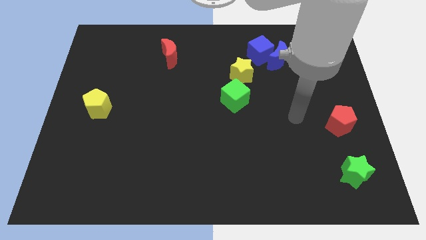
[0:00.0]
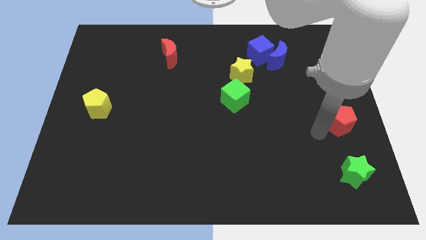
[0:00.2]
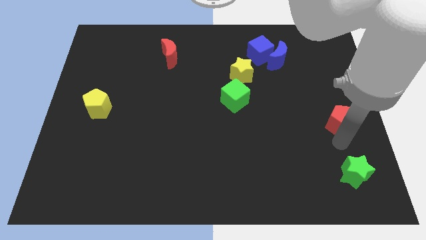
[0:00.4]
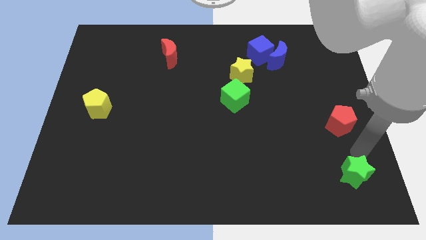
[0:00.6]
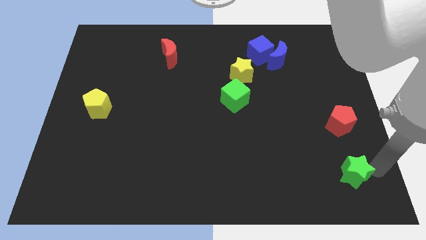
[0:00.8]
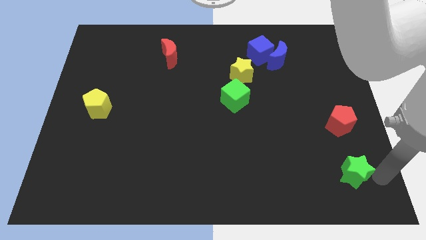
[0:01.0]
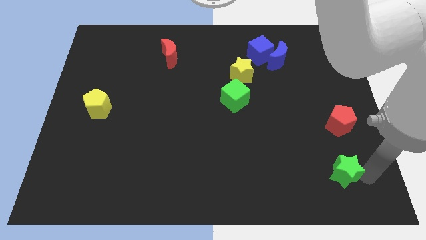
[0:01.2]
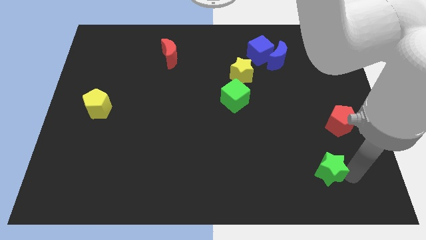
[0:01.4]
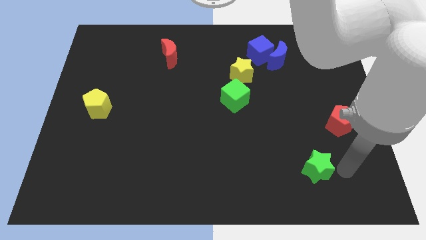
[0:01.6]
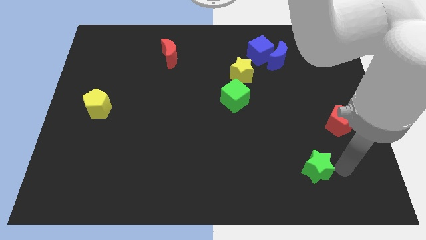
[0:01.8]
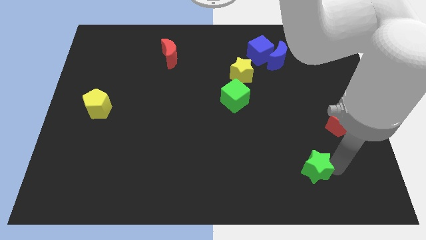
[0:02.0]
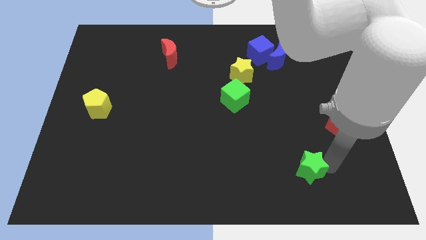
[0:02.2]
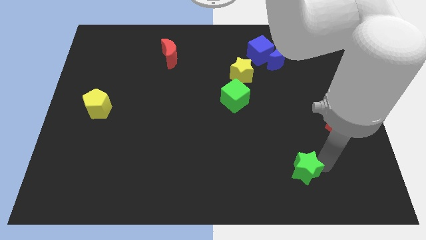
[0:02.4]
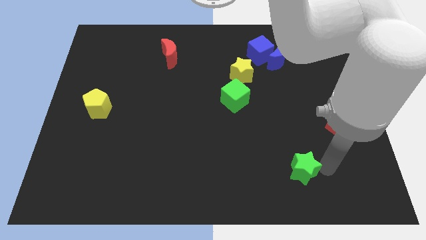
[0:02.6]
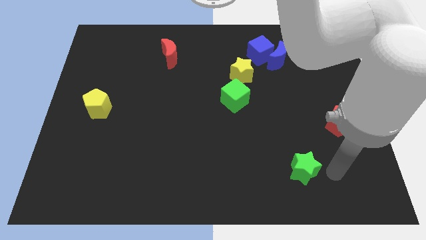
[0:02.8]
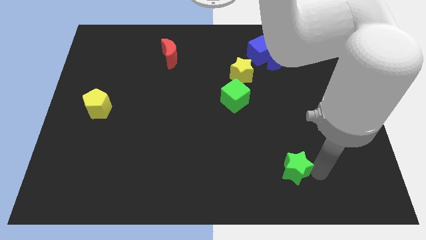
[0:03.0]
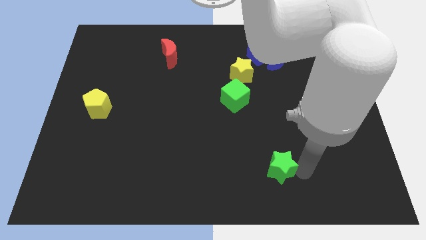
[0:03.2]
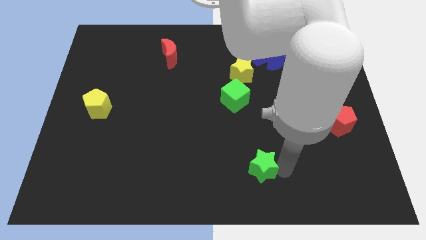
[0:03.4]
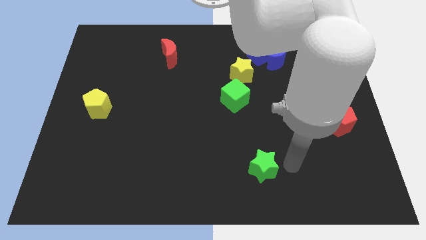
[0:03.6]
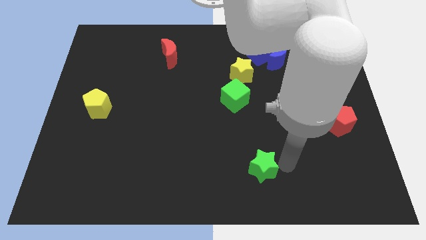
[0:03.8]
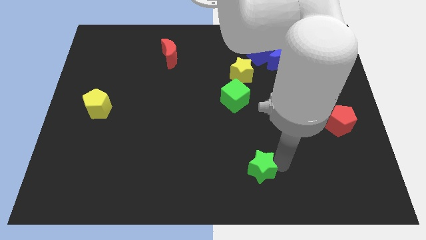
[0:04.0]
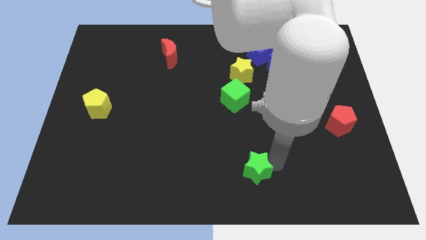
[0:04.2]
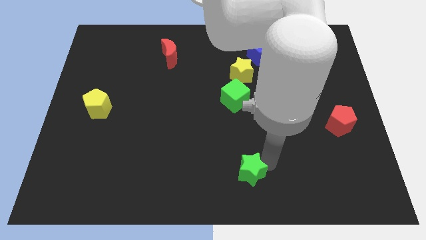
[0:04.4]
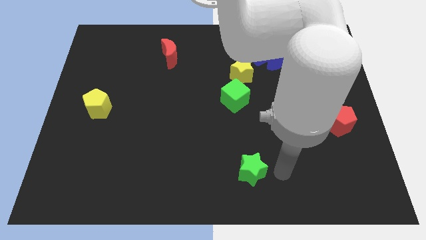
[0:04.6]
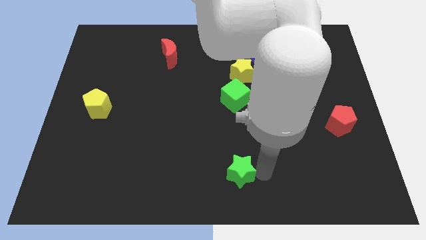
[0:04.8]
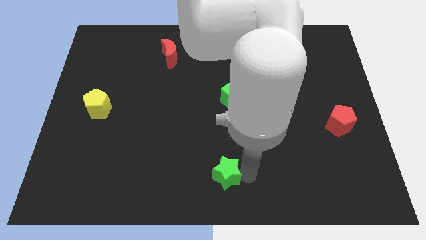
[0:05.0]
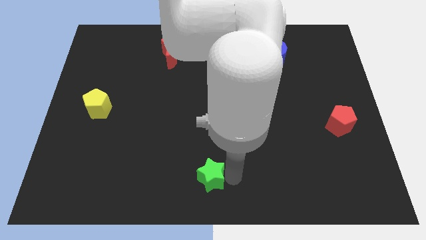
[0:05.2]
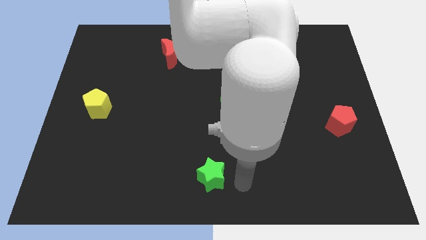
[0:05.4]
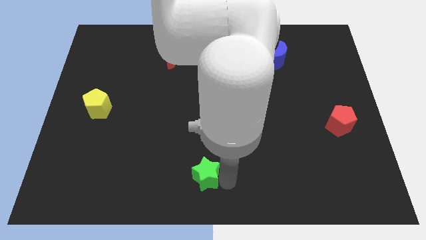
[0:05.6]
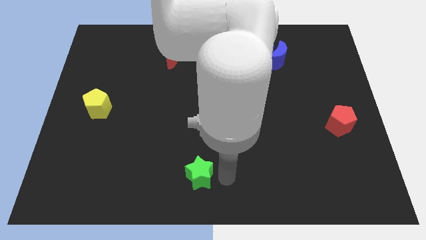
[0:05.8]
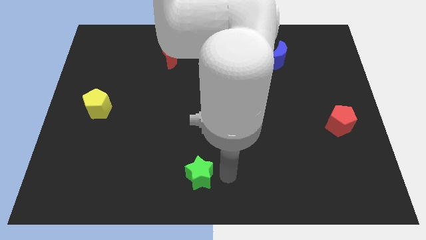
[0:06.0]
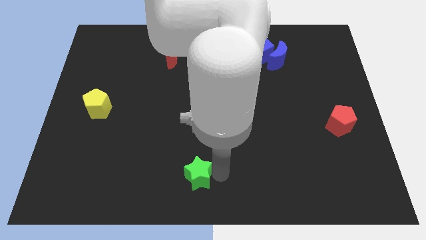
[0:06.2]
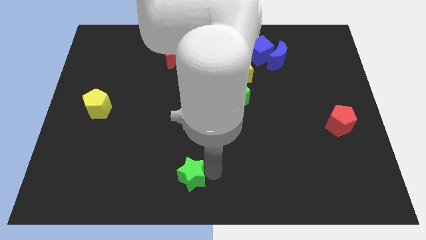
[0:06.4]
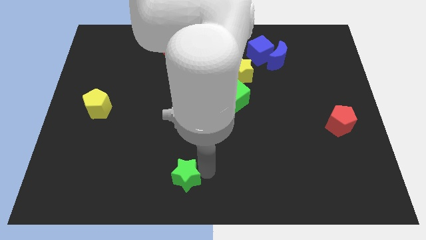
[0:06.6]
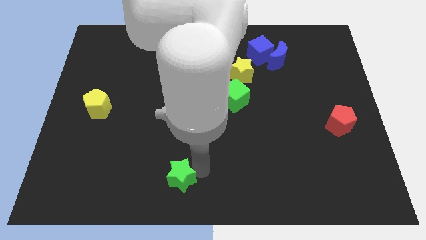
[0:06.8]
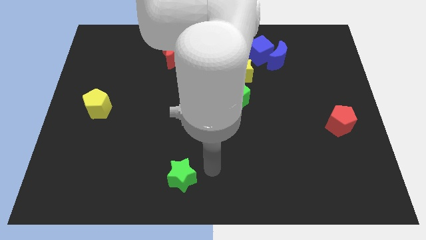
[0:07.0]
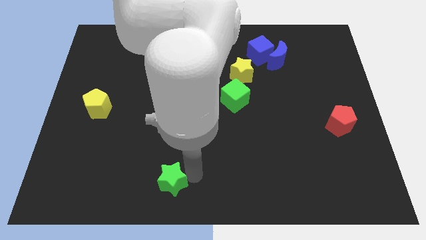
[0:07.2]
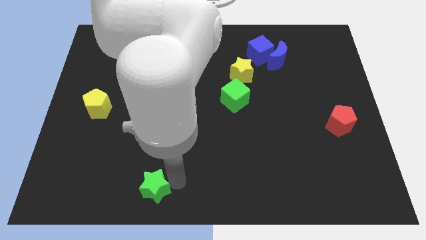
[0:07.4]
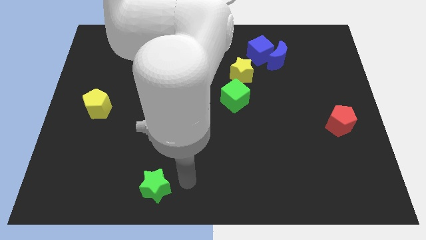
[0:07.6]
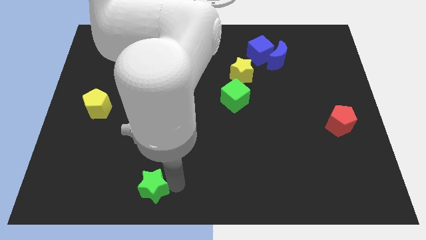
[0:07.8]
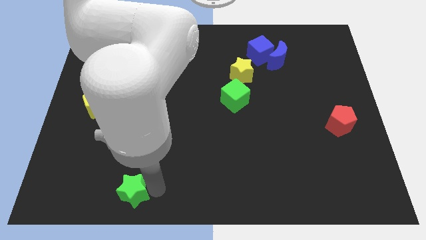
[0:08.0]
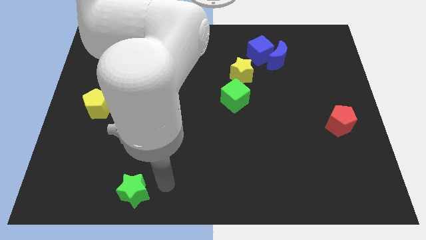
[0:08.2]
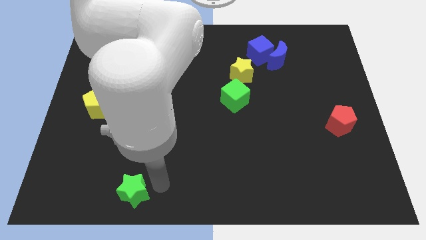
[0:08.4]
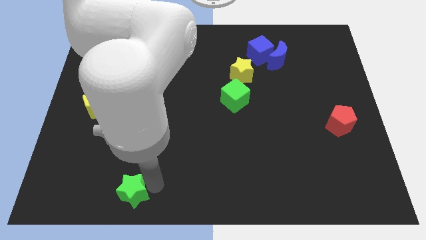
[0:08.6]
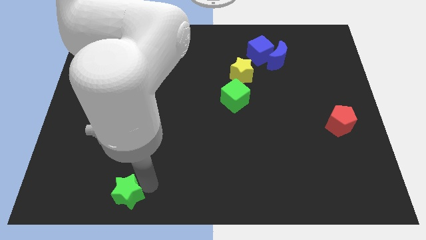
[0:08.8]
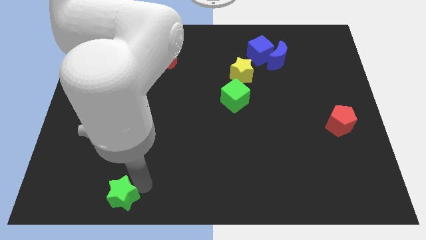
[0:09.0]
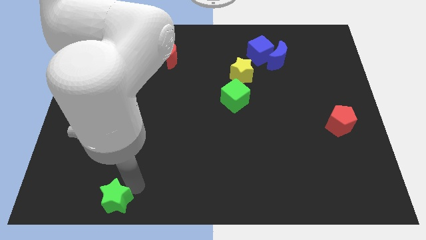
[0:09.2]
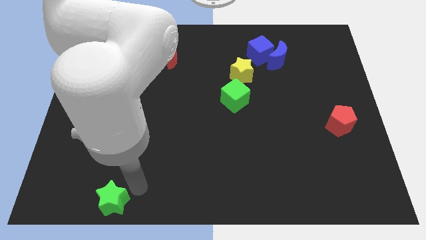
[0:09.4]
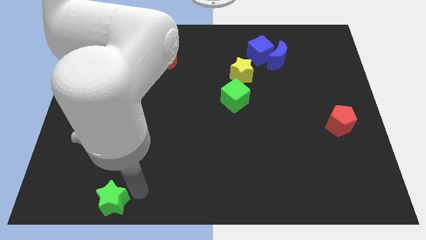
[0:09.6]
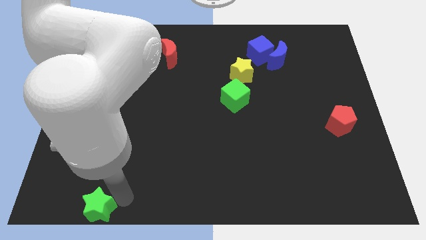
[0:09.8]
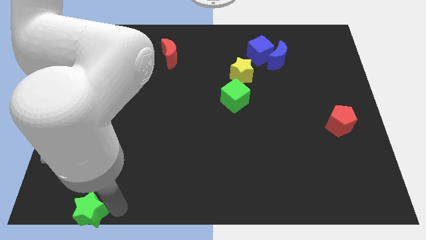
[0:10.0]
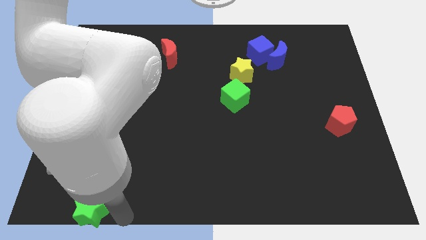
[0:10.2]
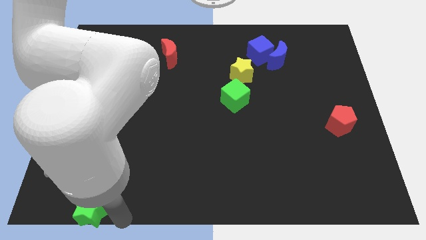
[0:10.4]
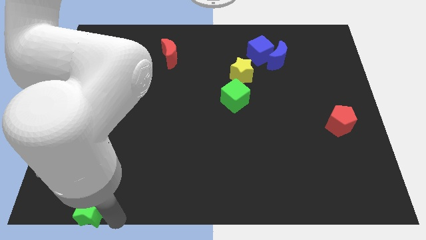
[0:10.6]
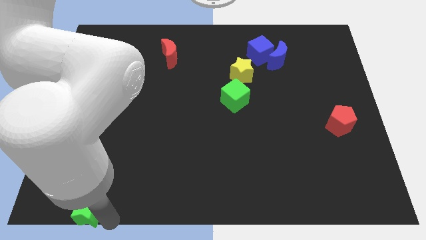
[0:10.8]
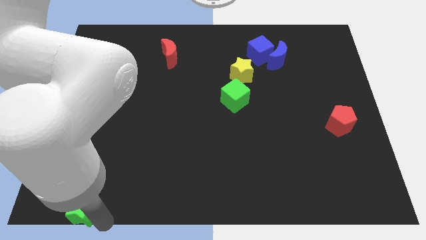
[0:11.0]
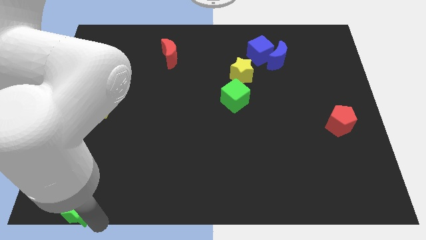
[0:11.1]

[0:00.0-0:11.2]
move the green star to the bottom left

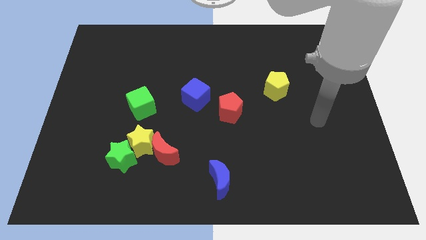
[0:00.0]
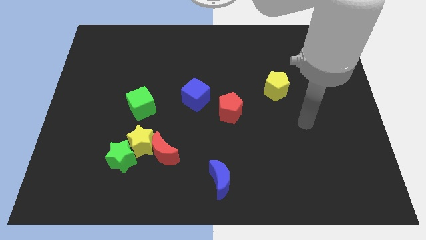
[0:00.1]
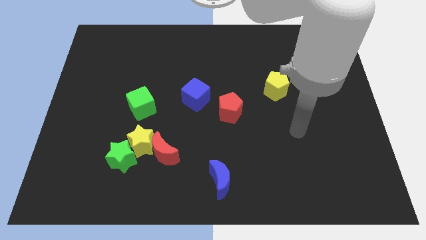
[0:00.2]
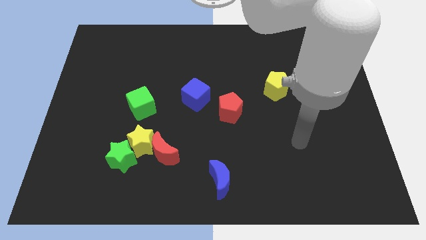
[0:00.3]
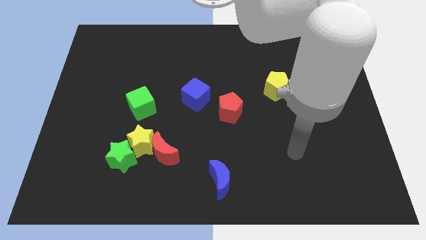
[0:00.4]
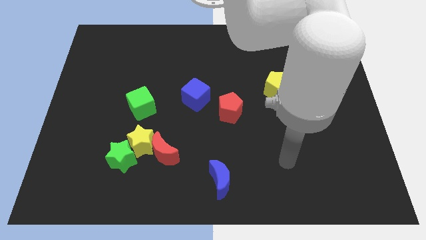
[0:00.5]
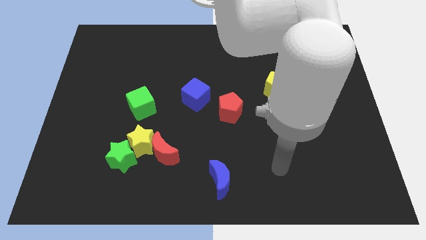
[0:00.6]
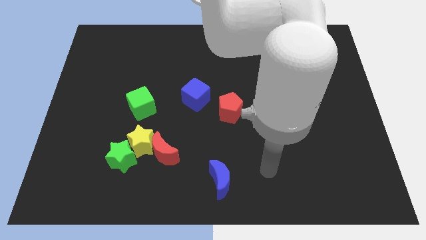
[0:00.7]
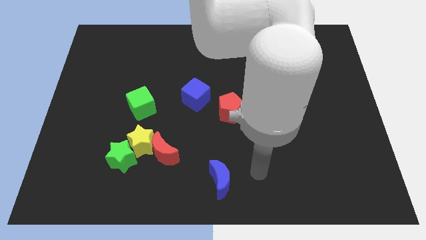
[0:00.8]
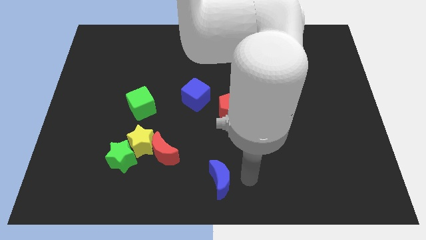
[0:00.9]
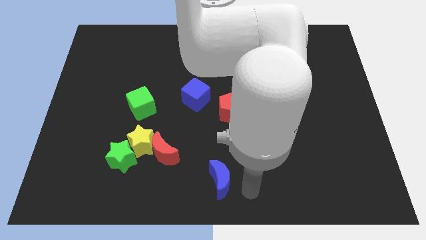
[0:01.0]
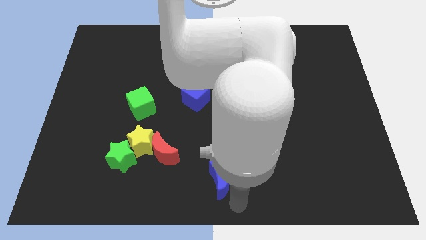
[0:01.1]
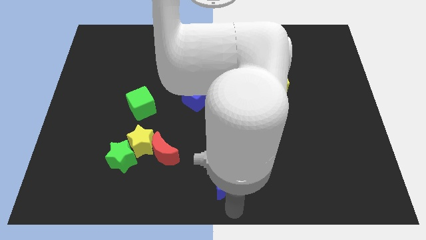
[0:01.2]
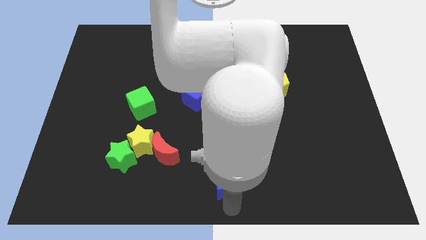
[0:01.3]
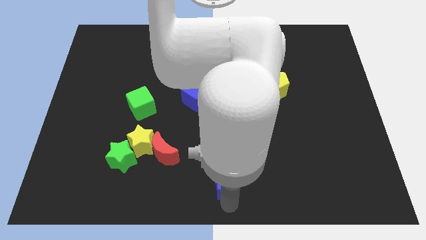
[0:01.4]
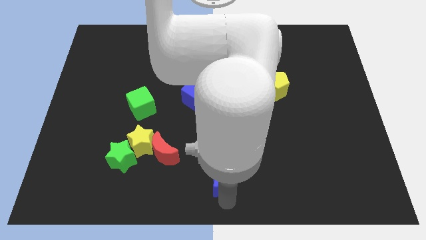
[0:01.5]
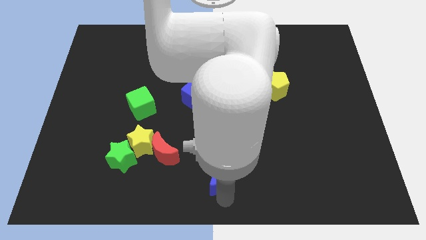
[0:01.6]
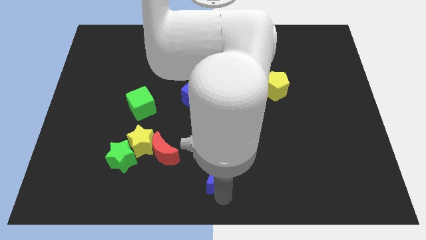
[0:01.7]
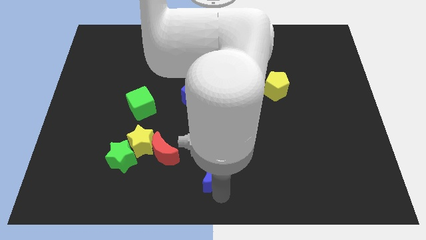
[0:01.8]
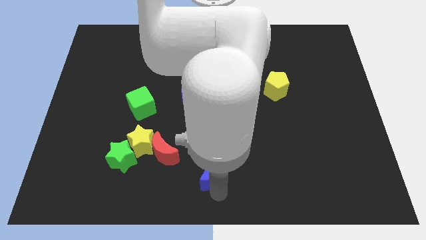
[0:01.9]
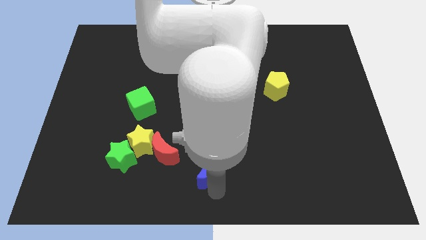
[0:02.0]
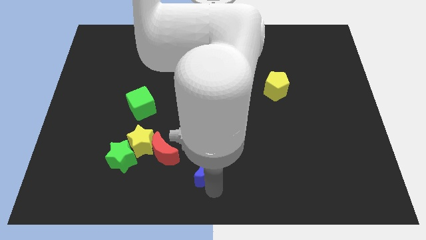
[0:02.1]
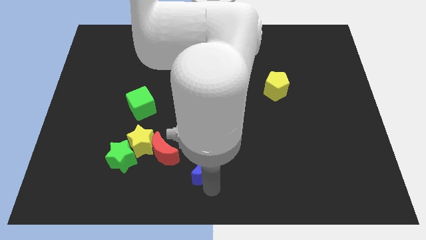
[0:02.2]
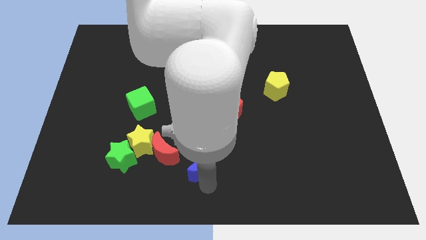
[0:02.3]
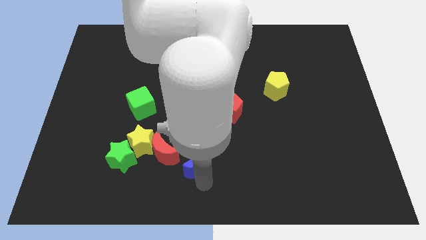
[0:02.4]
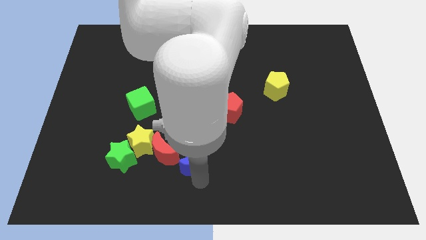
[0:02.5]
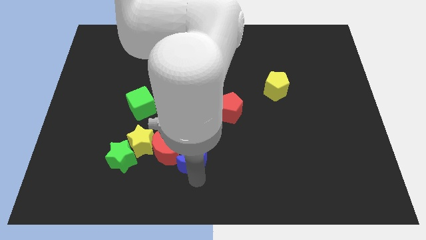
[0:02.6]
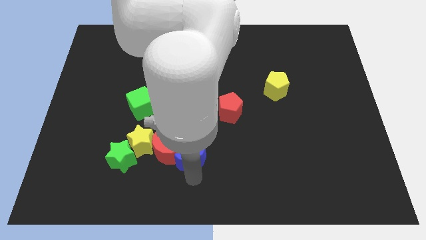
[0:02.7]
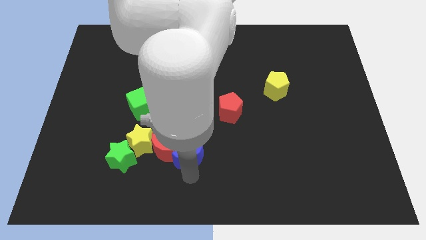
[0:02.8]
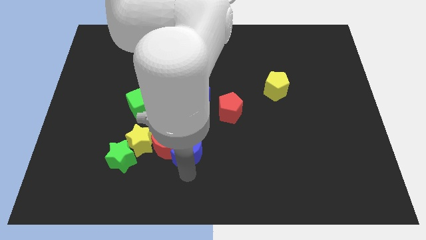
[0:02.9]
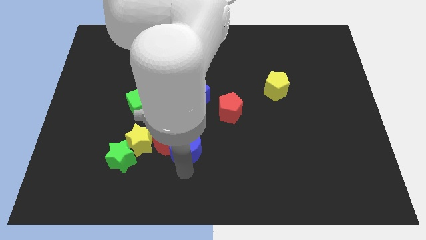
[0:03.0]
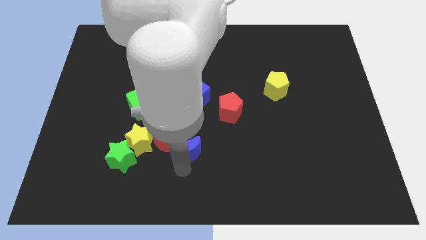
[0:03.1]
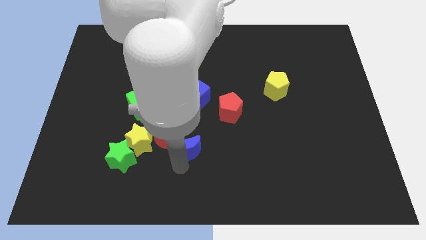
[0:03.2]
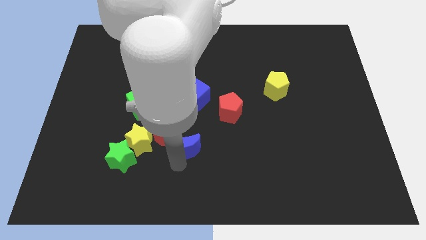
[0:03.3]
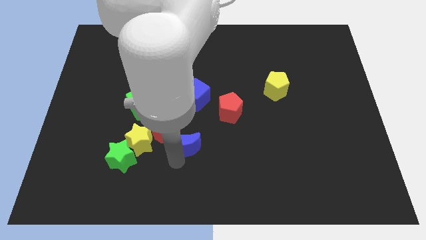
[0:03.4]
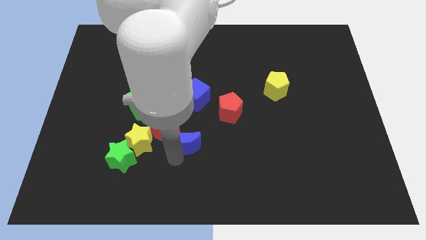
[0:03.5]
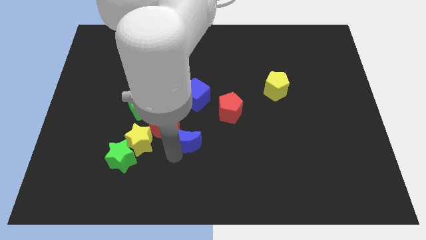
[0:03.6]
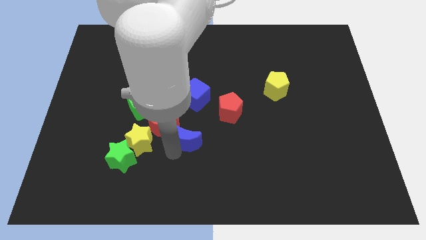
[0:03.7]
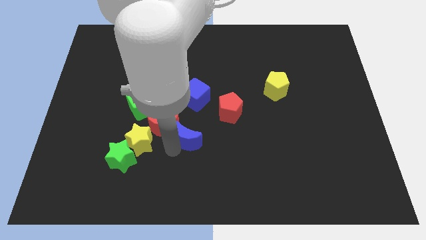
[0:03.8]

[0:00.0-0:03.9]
push the blue moon to the center of the board
